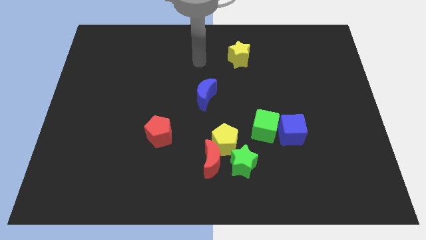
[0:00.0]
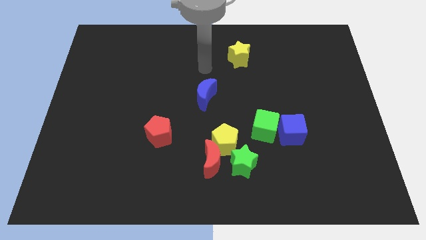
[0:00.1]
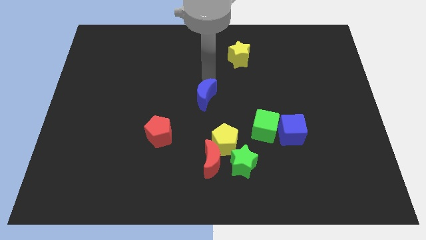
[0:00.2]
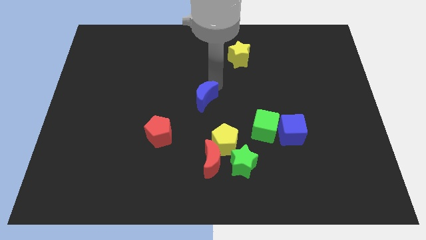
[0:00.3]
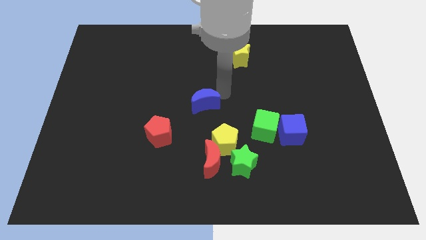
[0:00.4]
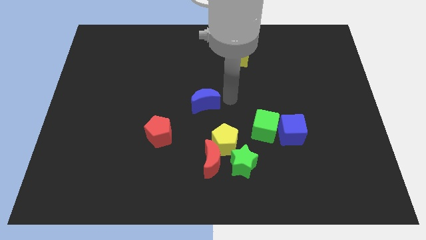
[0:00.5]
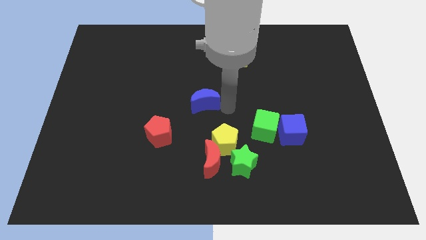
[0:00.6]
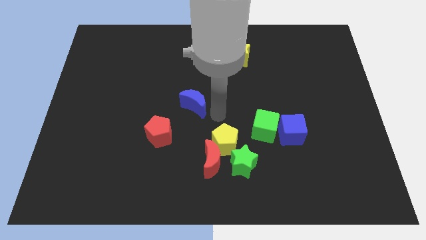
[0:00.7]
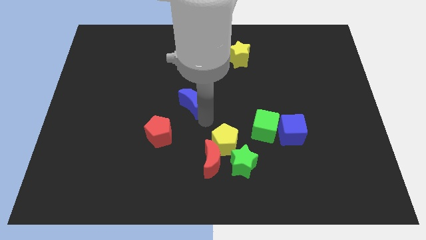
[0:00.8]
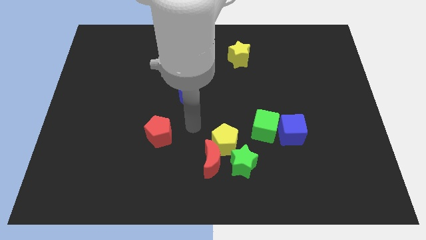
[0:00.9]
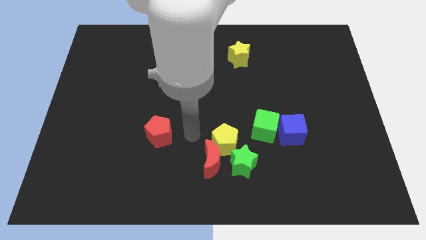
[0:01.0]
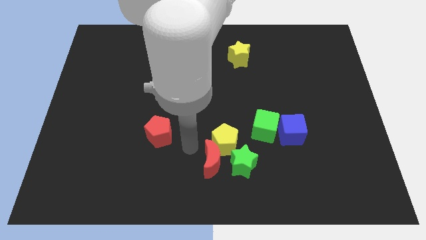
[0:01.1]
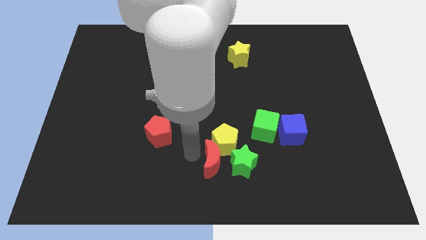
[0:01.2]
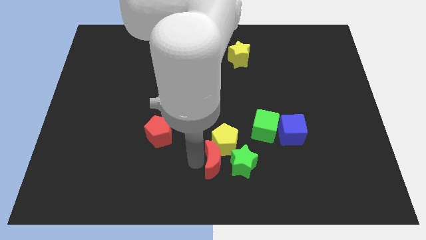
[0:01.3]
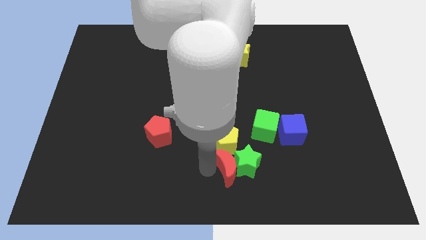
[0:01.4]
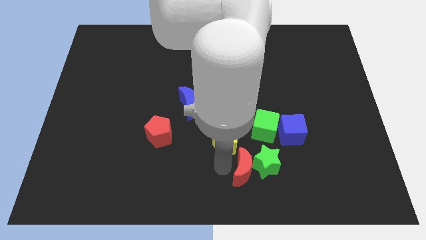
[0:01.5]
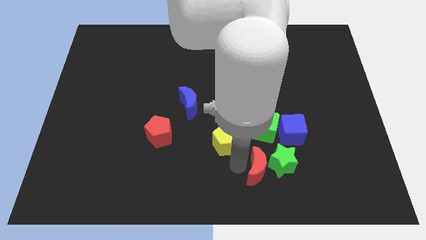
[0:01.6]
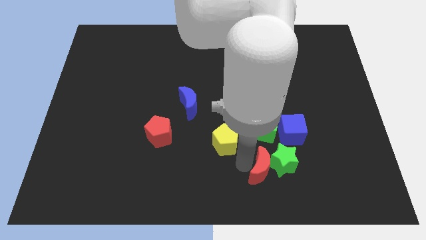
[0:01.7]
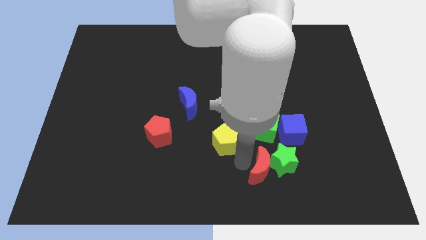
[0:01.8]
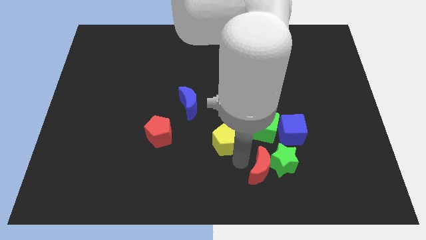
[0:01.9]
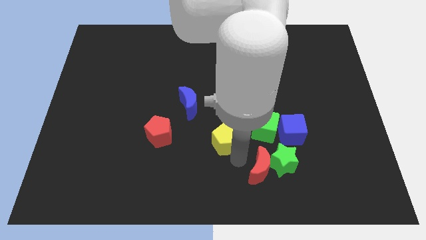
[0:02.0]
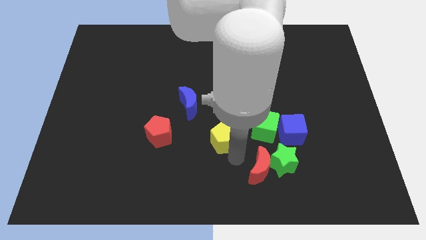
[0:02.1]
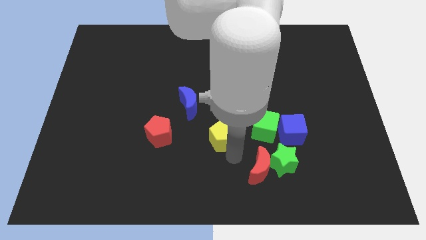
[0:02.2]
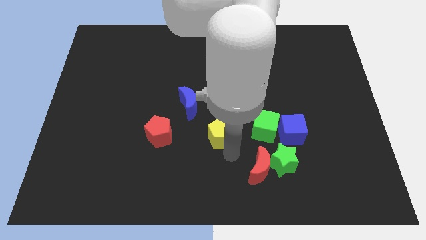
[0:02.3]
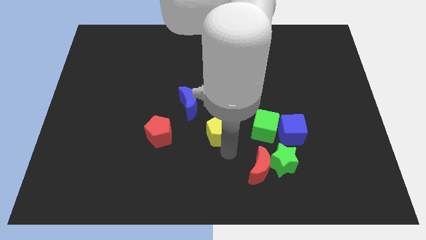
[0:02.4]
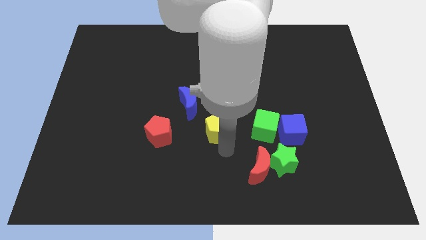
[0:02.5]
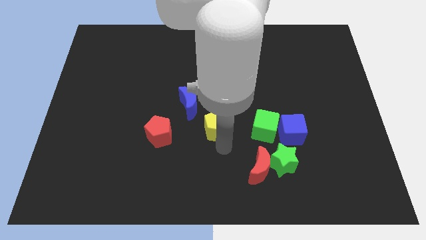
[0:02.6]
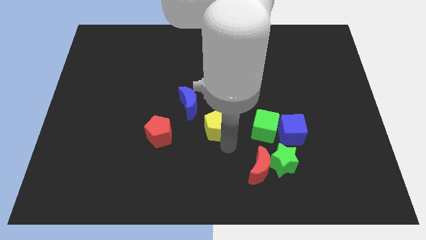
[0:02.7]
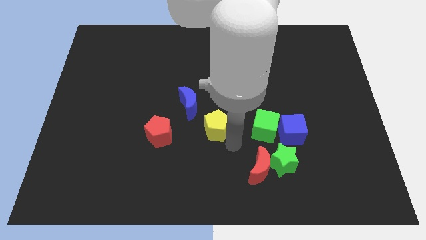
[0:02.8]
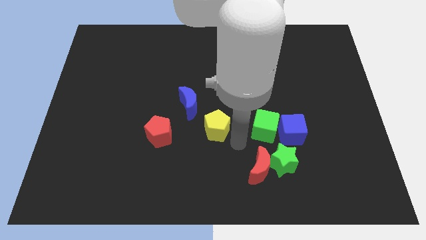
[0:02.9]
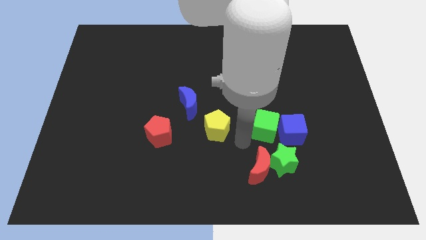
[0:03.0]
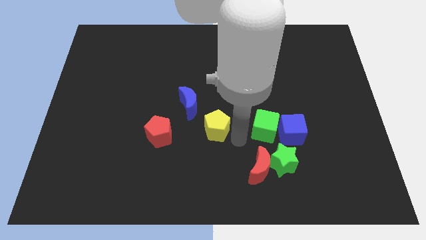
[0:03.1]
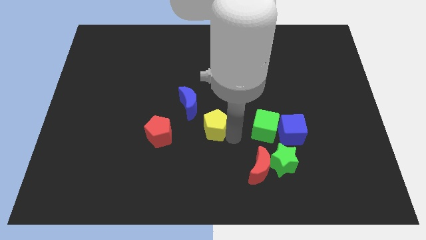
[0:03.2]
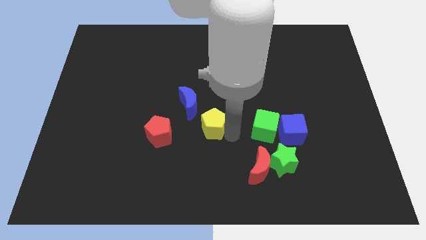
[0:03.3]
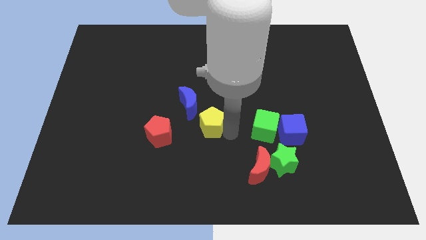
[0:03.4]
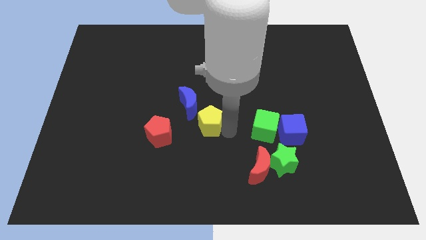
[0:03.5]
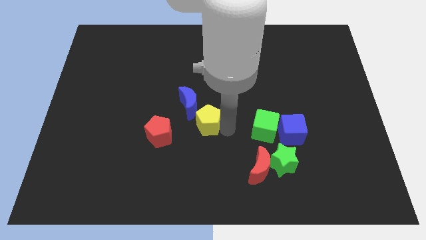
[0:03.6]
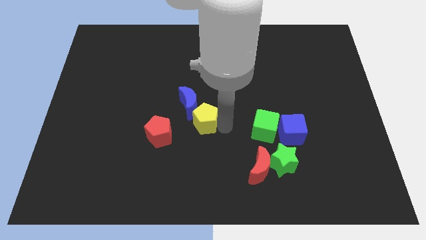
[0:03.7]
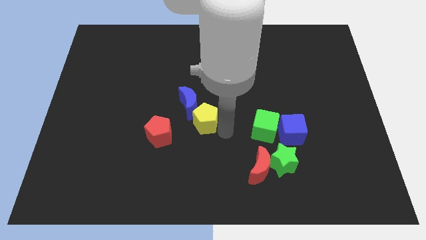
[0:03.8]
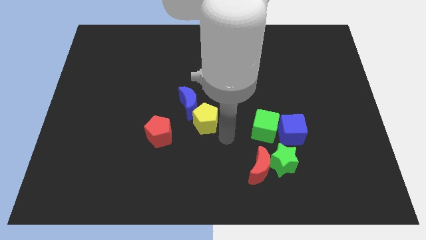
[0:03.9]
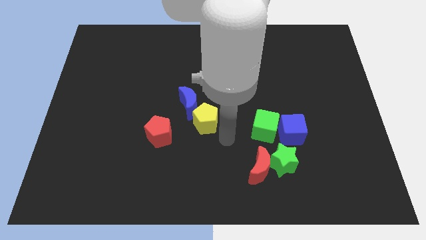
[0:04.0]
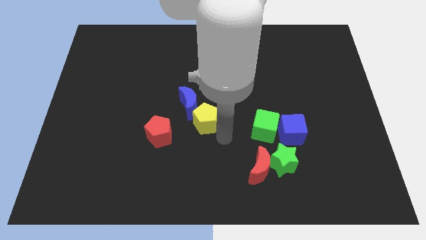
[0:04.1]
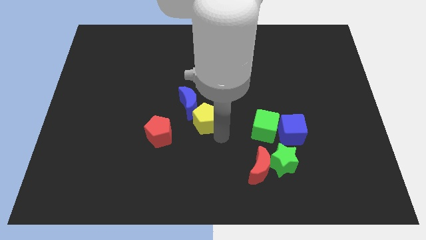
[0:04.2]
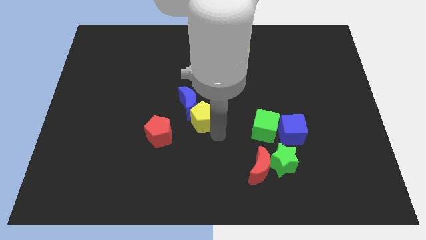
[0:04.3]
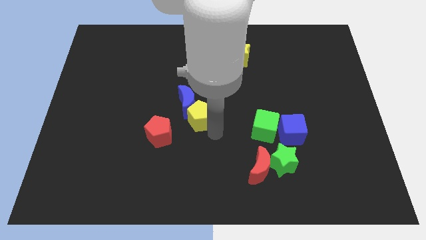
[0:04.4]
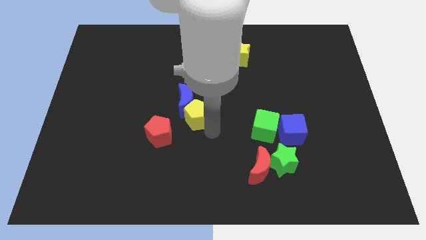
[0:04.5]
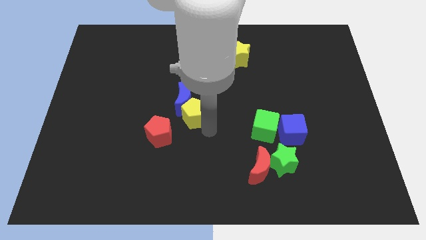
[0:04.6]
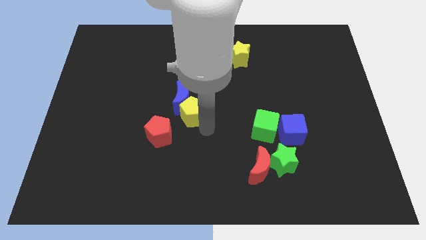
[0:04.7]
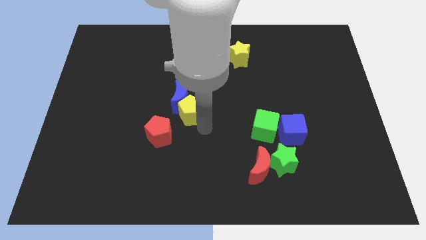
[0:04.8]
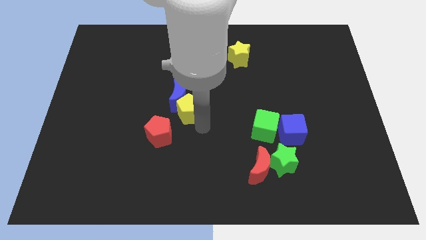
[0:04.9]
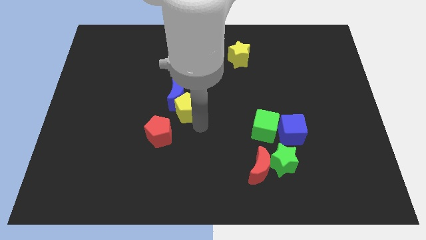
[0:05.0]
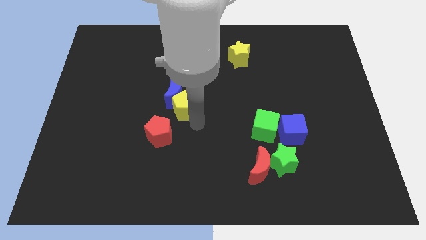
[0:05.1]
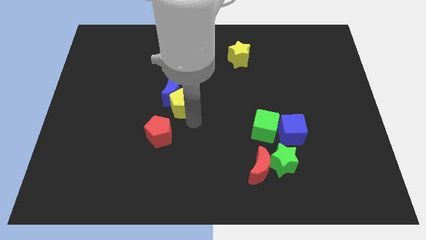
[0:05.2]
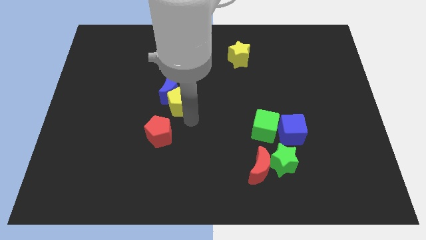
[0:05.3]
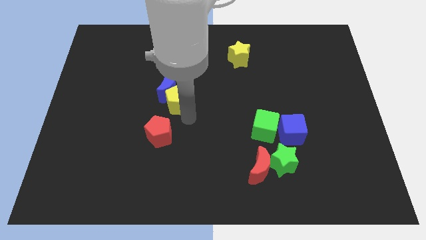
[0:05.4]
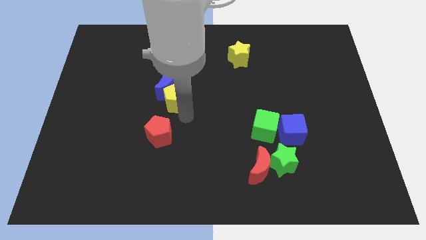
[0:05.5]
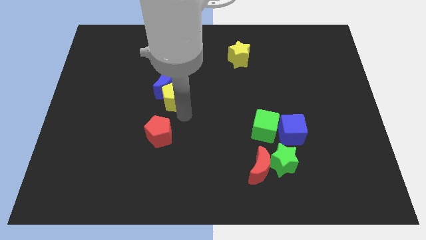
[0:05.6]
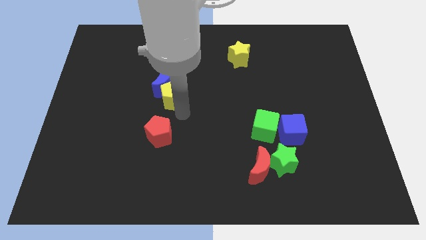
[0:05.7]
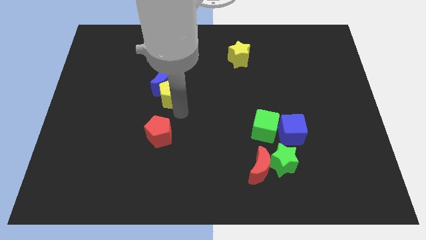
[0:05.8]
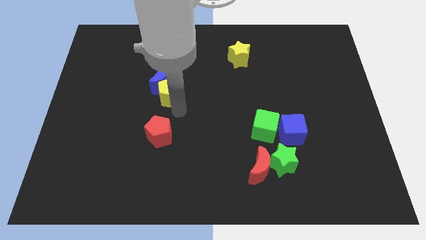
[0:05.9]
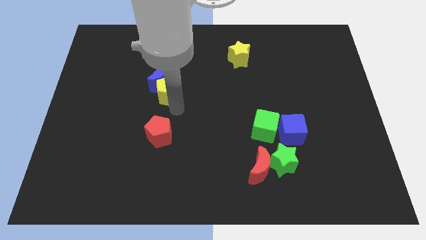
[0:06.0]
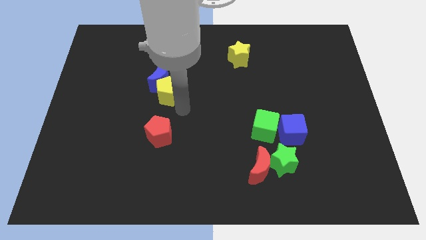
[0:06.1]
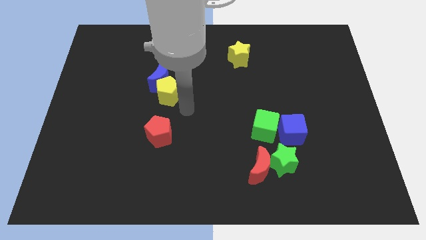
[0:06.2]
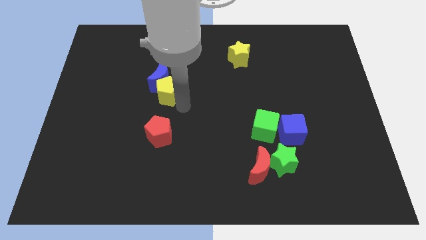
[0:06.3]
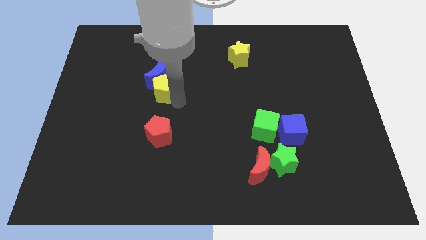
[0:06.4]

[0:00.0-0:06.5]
push the yellow pentagon diagonally up and to the left

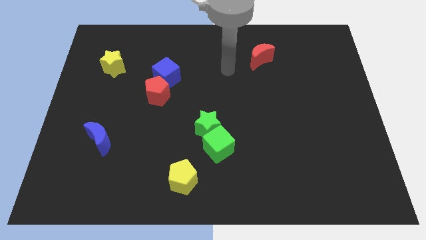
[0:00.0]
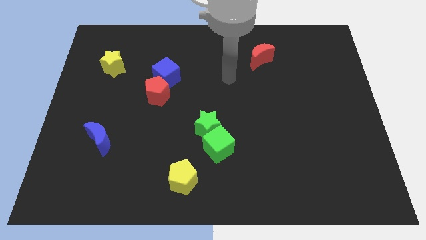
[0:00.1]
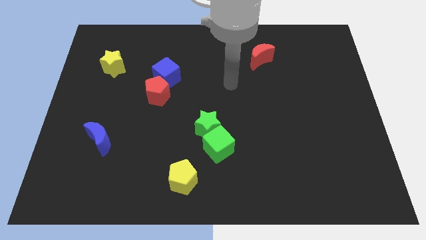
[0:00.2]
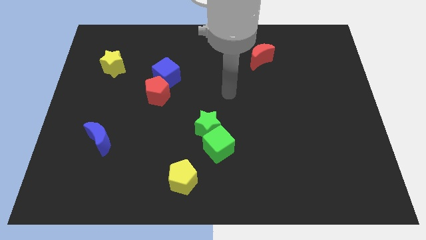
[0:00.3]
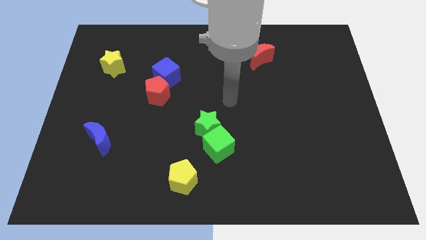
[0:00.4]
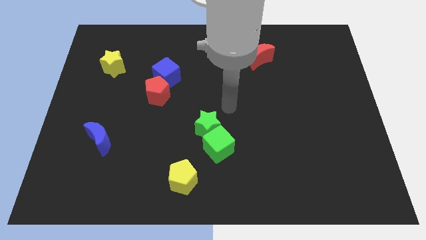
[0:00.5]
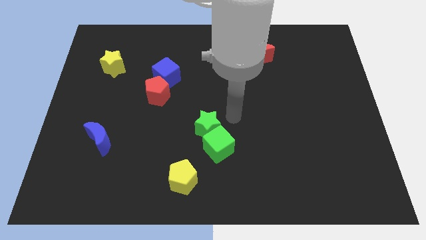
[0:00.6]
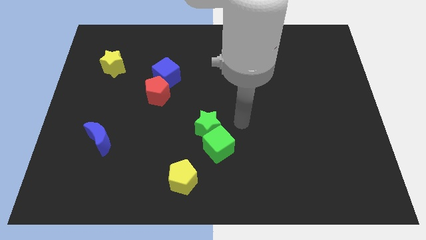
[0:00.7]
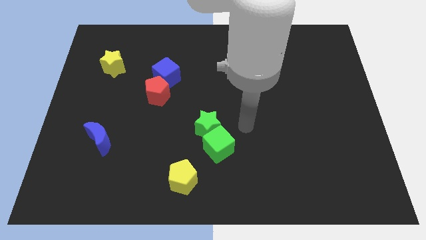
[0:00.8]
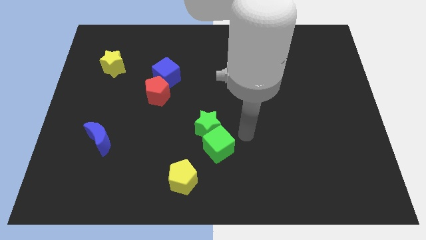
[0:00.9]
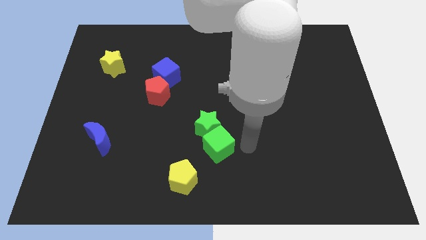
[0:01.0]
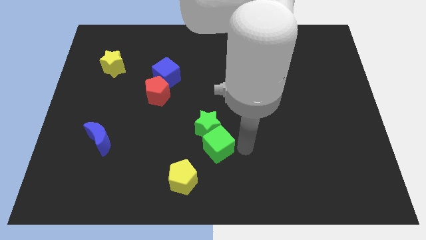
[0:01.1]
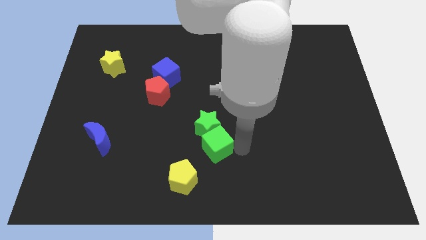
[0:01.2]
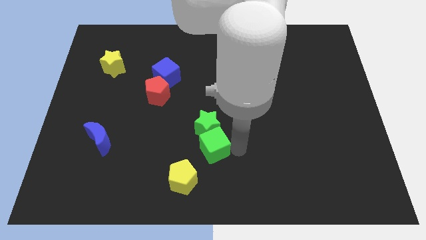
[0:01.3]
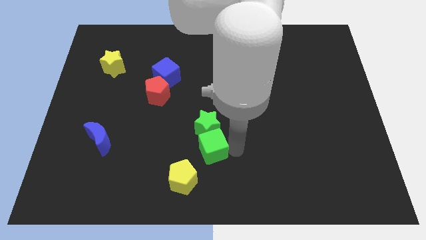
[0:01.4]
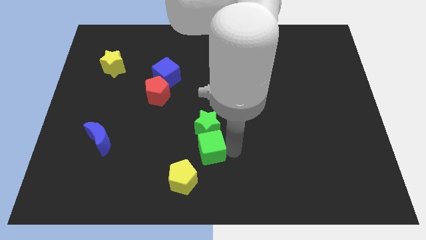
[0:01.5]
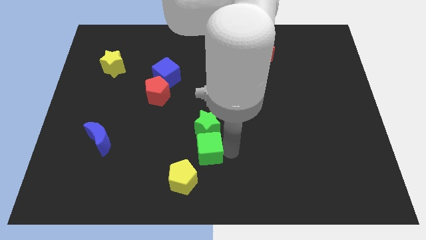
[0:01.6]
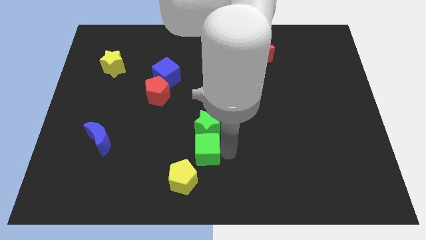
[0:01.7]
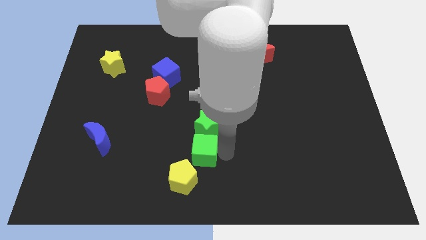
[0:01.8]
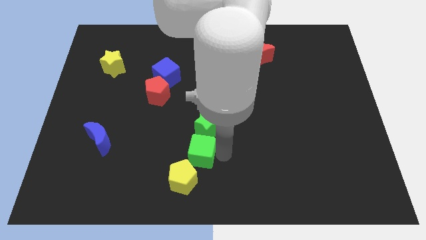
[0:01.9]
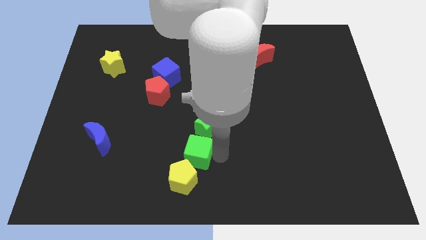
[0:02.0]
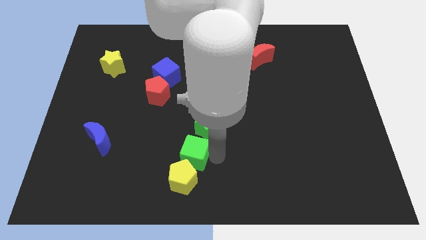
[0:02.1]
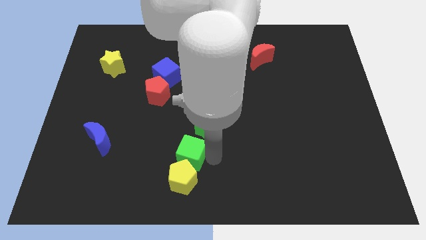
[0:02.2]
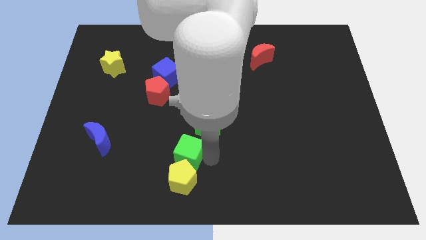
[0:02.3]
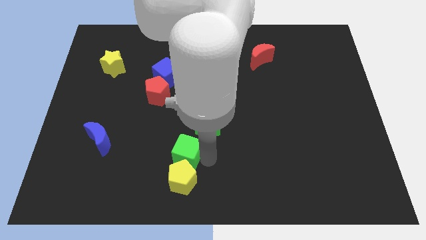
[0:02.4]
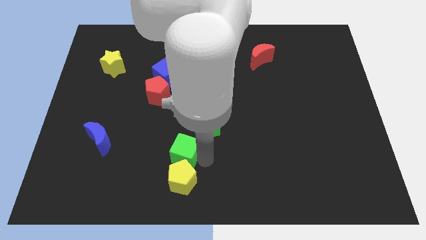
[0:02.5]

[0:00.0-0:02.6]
slide the green cube left a little
